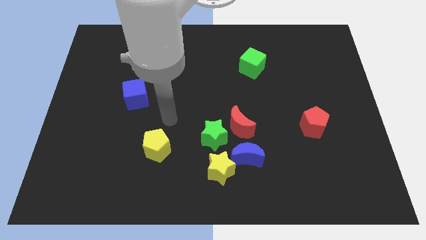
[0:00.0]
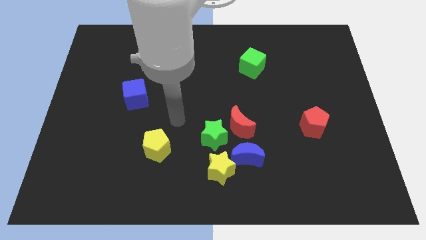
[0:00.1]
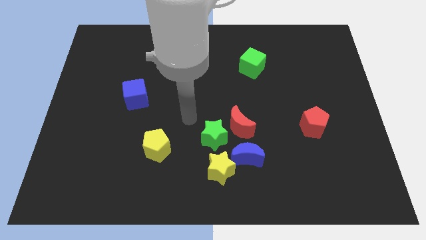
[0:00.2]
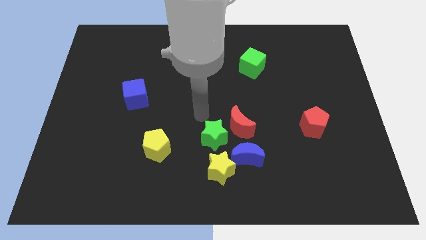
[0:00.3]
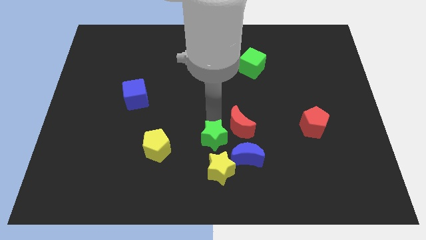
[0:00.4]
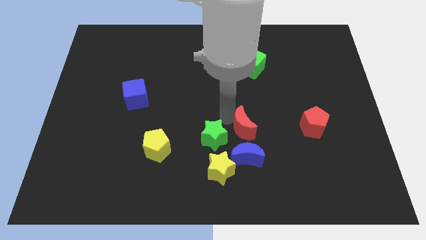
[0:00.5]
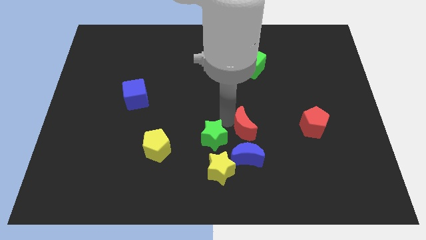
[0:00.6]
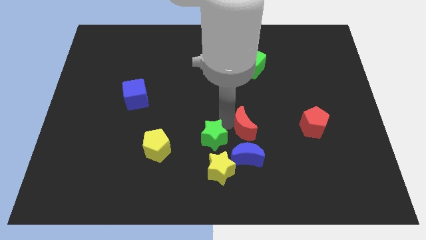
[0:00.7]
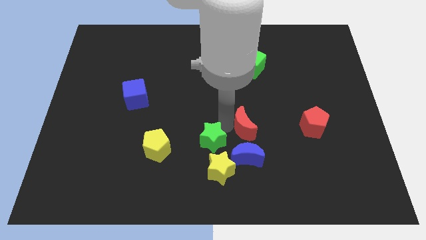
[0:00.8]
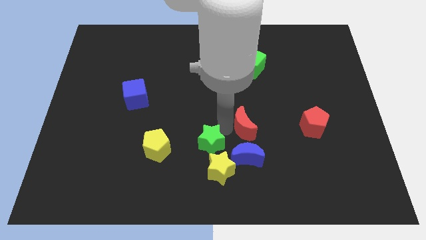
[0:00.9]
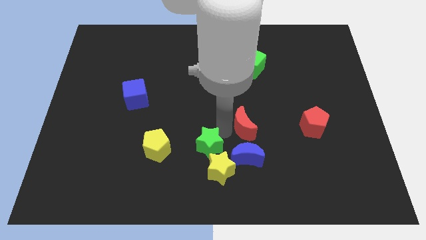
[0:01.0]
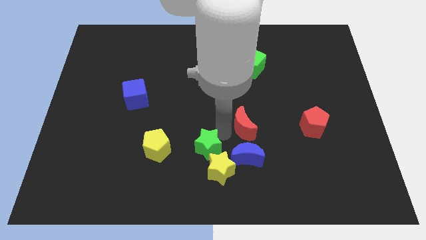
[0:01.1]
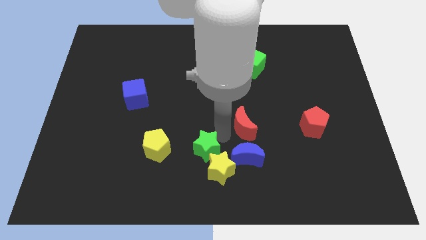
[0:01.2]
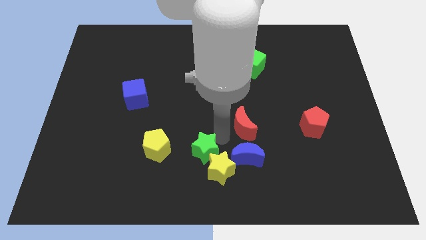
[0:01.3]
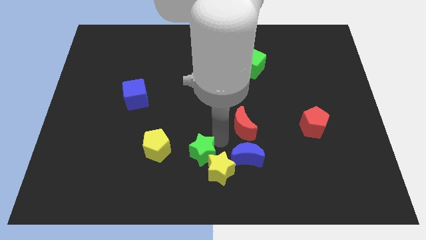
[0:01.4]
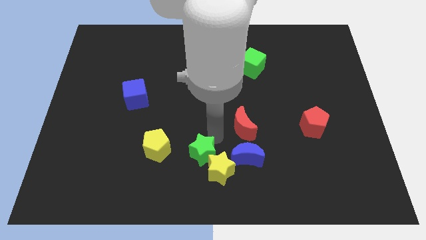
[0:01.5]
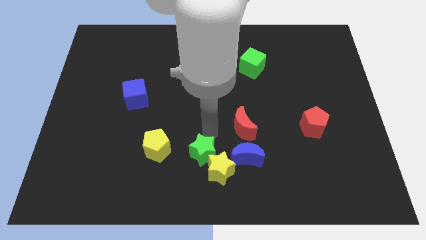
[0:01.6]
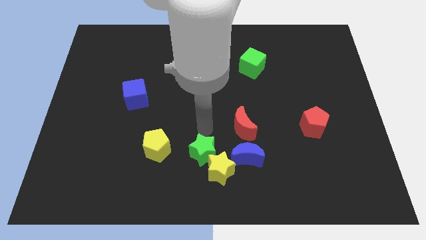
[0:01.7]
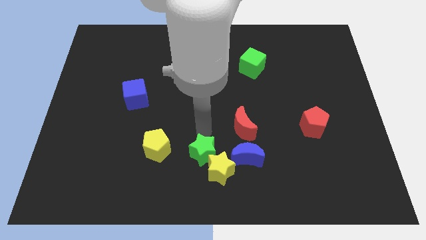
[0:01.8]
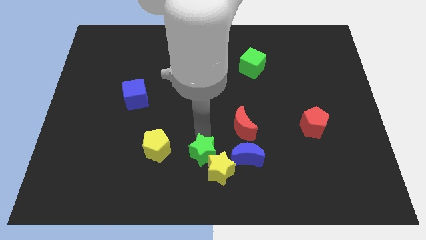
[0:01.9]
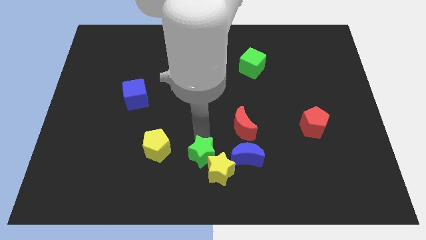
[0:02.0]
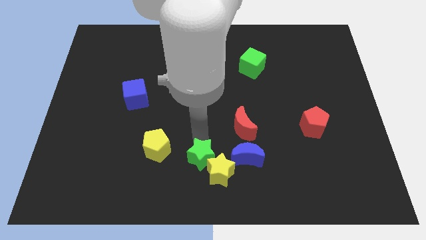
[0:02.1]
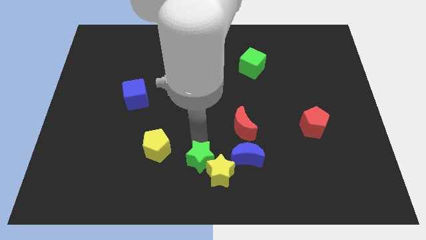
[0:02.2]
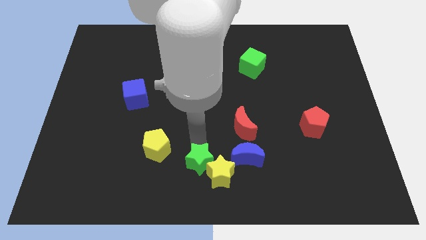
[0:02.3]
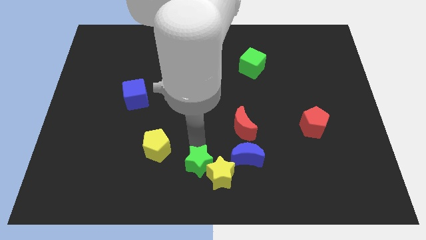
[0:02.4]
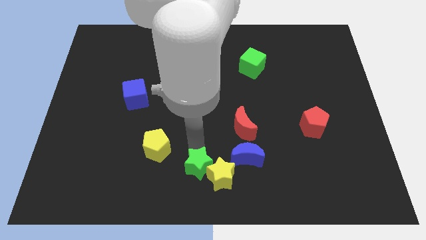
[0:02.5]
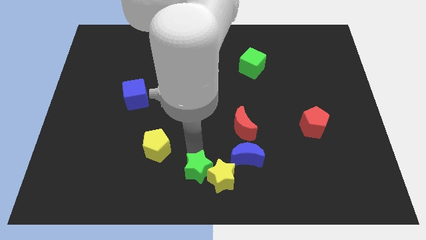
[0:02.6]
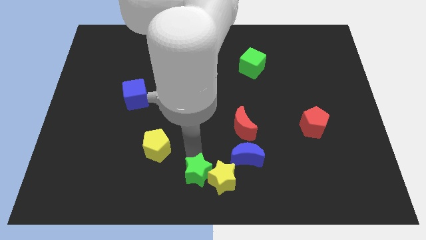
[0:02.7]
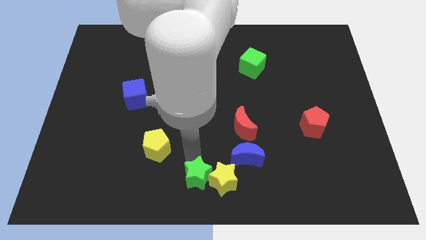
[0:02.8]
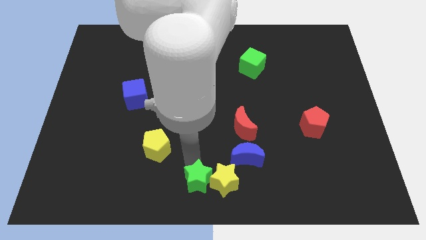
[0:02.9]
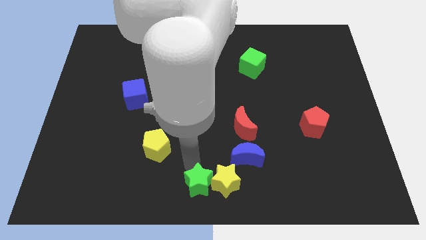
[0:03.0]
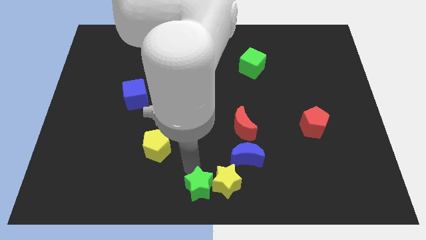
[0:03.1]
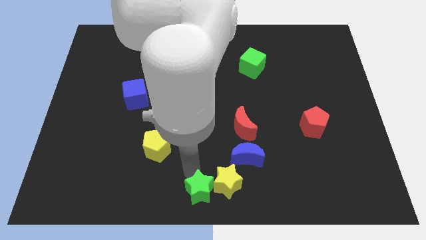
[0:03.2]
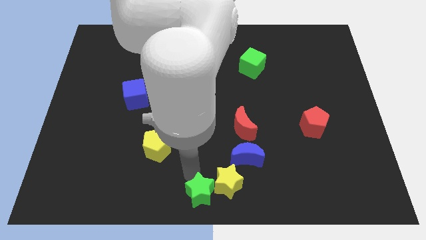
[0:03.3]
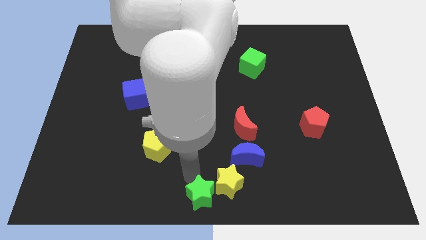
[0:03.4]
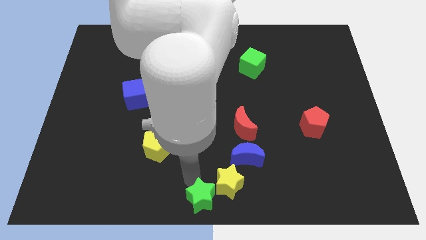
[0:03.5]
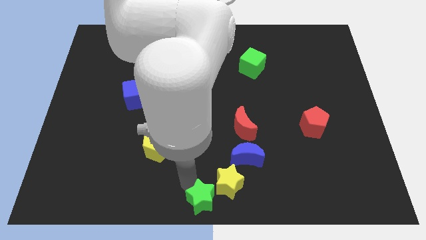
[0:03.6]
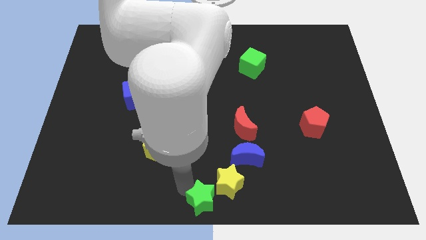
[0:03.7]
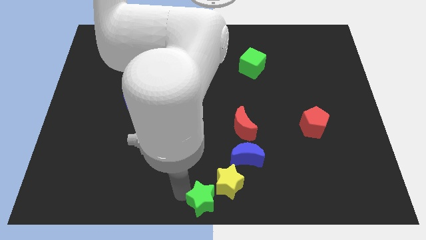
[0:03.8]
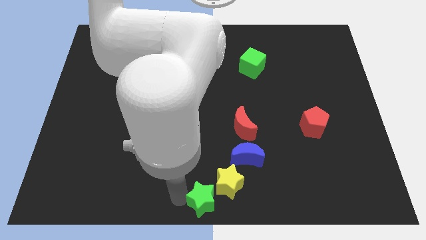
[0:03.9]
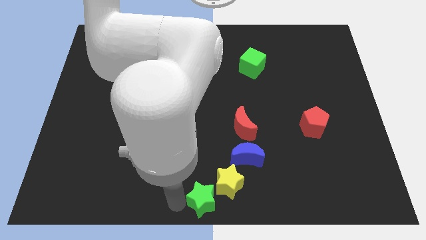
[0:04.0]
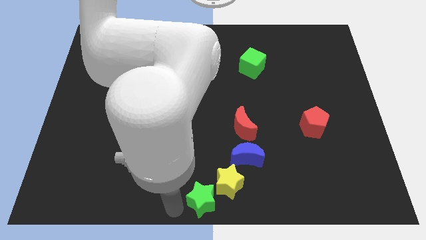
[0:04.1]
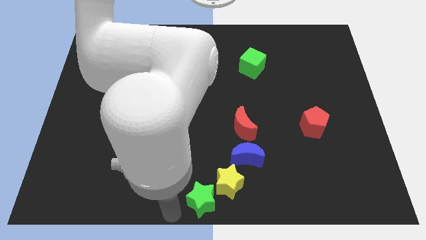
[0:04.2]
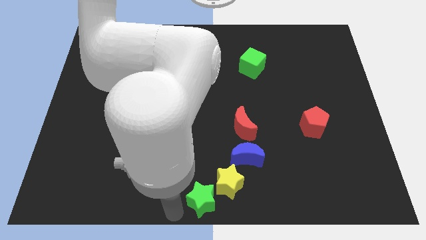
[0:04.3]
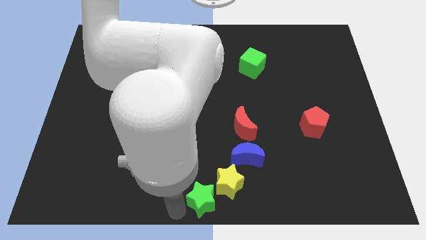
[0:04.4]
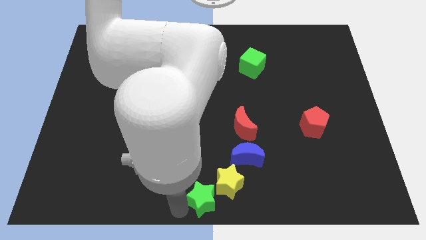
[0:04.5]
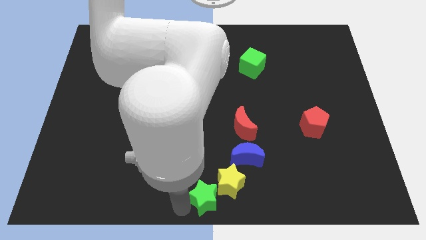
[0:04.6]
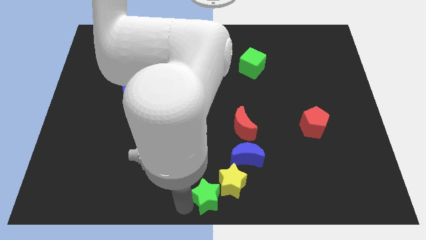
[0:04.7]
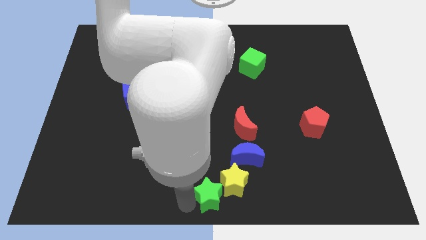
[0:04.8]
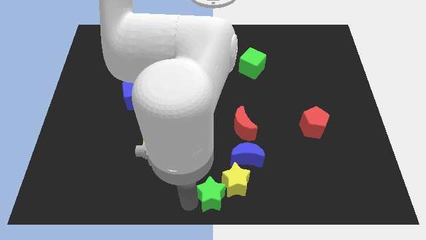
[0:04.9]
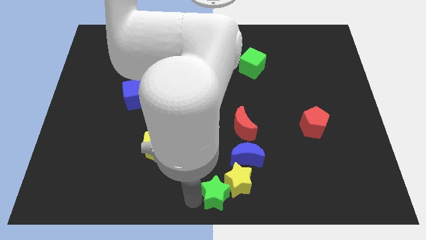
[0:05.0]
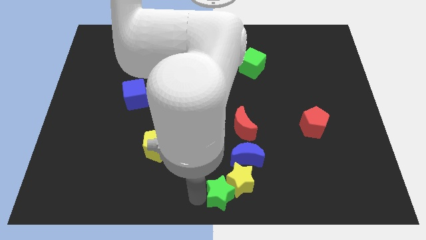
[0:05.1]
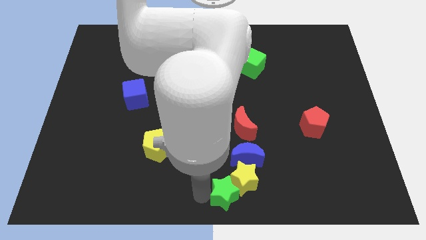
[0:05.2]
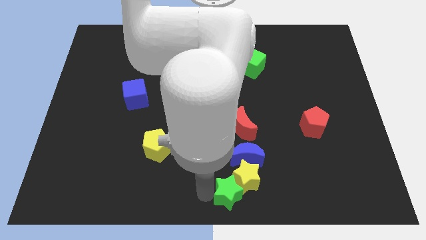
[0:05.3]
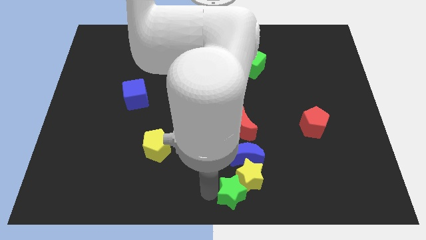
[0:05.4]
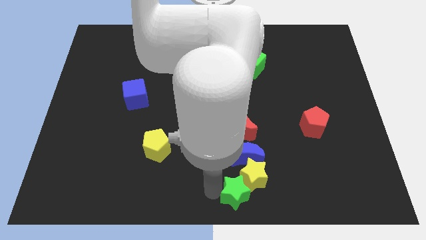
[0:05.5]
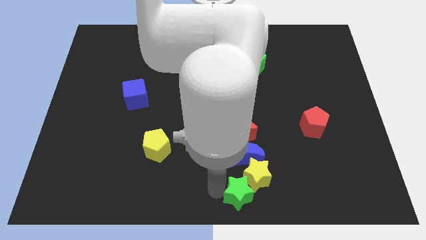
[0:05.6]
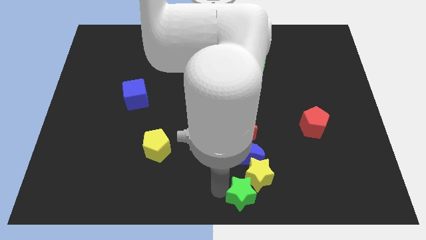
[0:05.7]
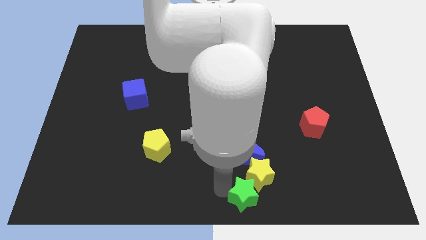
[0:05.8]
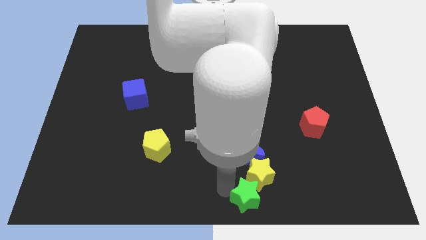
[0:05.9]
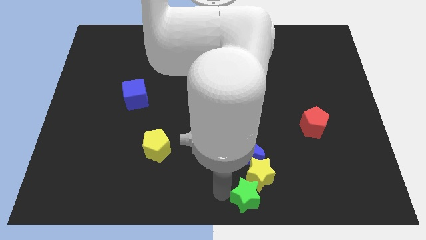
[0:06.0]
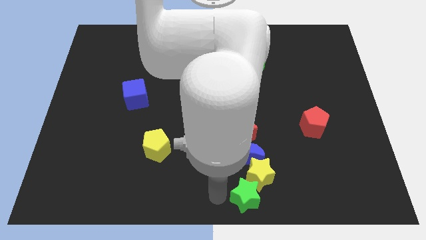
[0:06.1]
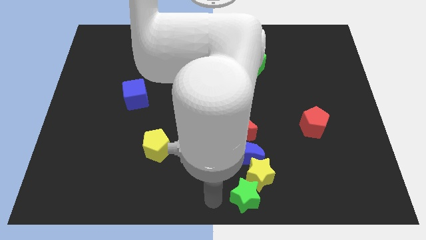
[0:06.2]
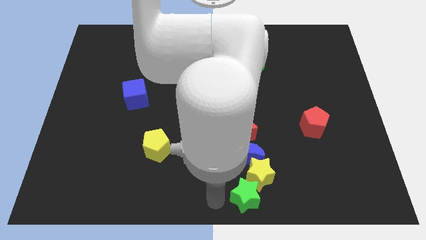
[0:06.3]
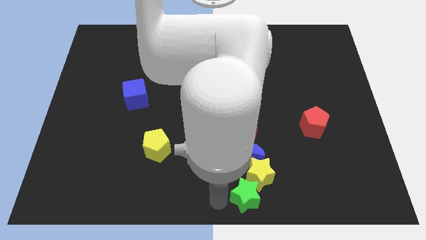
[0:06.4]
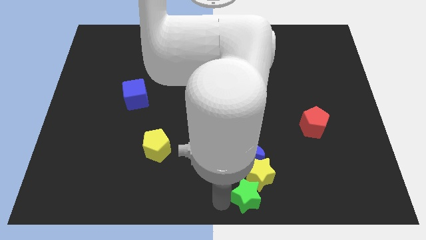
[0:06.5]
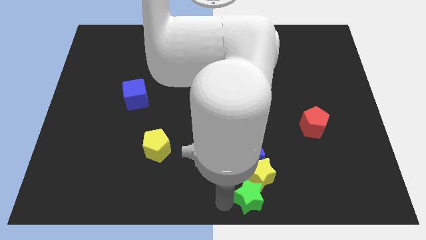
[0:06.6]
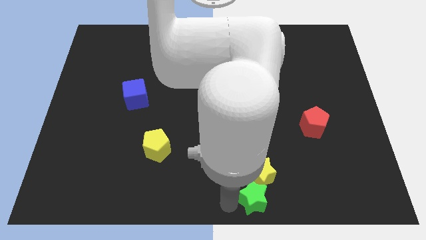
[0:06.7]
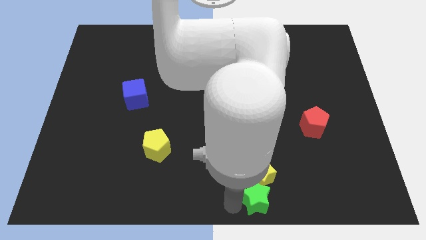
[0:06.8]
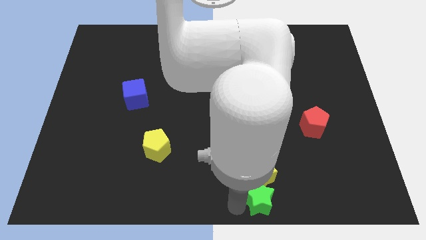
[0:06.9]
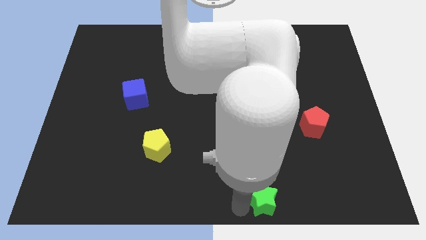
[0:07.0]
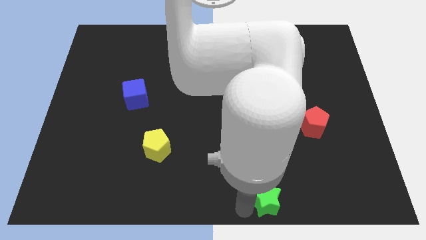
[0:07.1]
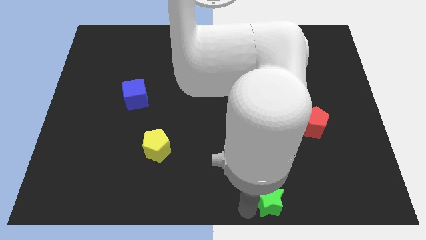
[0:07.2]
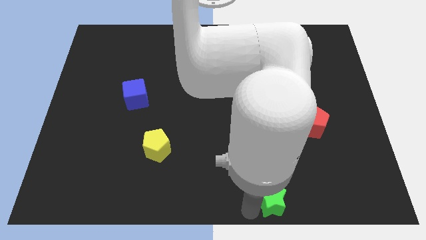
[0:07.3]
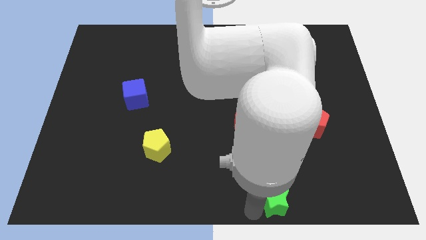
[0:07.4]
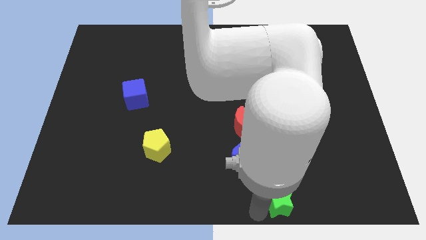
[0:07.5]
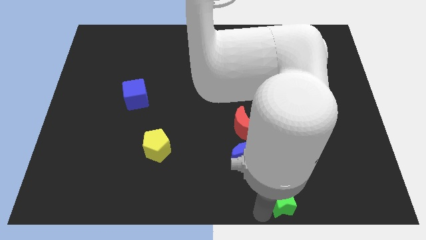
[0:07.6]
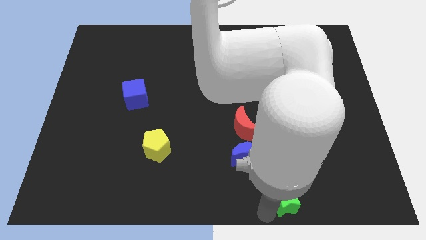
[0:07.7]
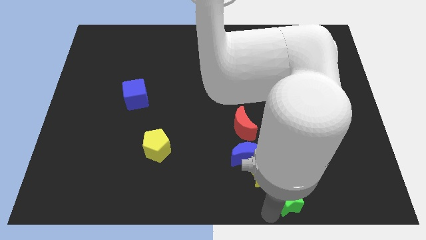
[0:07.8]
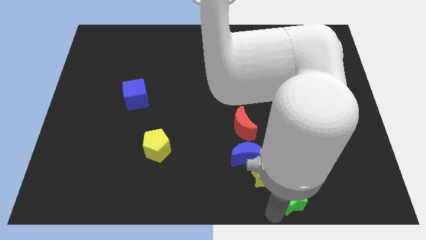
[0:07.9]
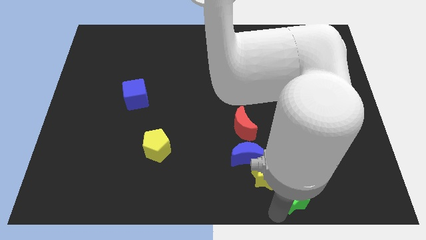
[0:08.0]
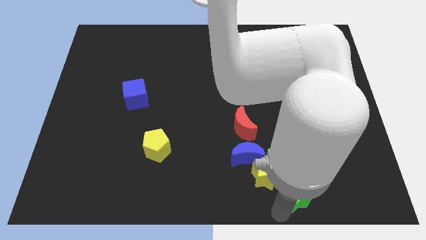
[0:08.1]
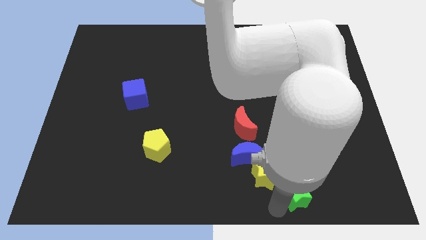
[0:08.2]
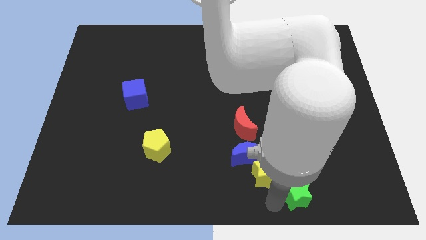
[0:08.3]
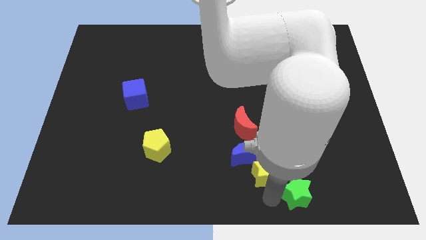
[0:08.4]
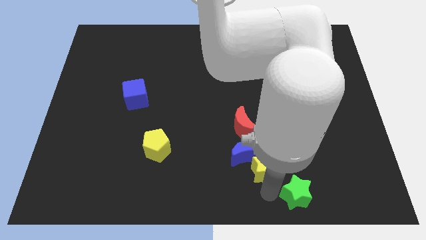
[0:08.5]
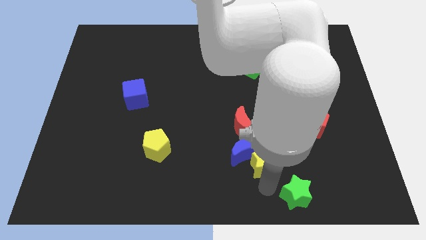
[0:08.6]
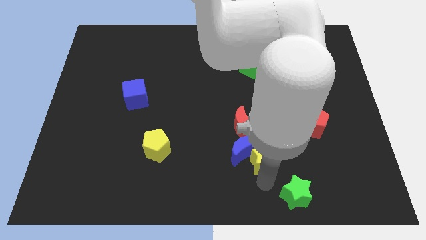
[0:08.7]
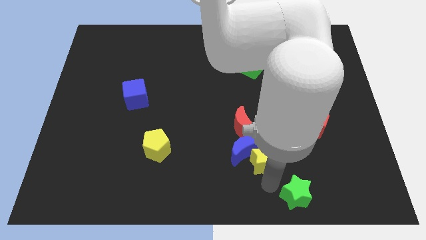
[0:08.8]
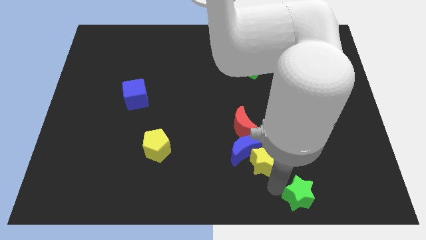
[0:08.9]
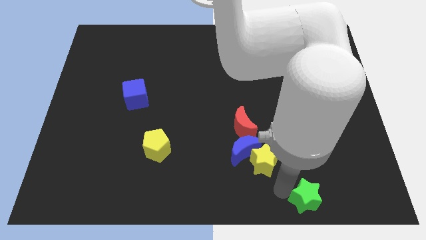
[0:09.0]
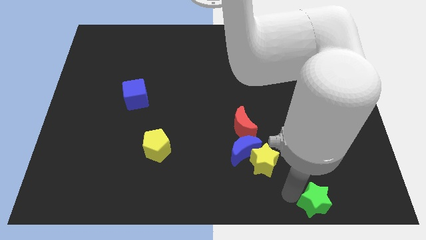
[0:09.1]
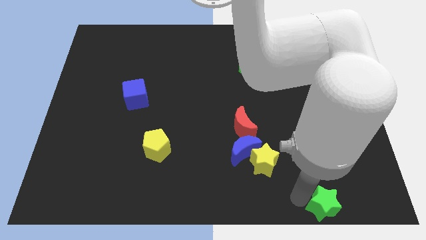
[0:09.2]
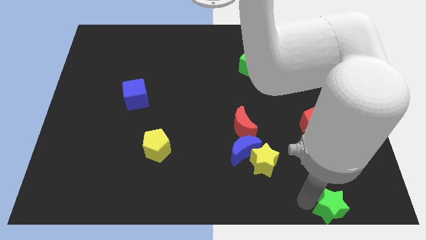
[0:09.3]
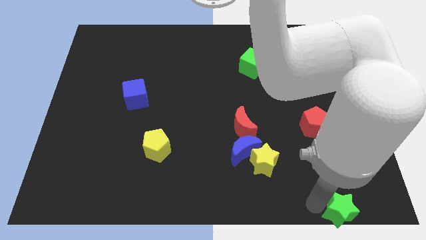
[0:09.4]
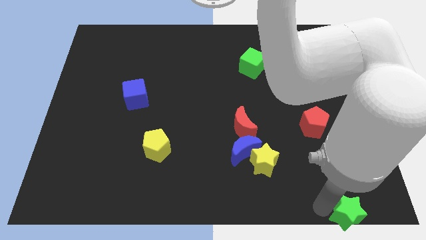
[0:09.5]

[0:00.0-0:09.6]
move the green star to the bottom right
